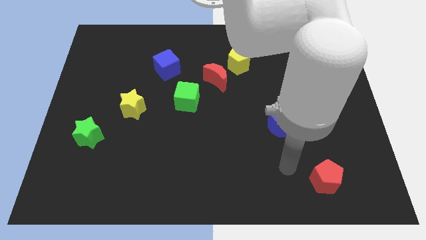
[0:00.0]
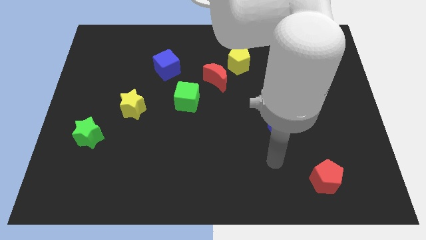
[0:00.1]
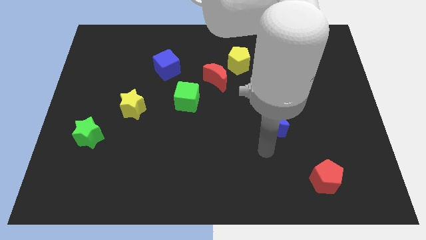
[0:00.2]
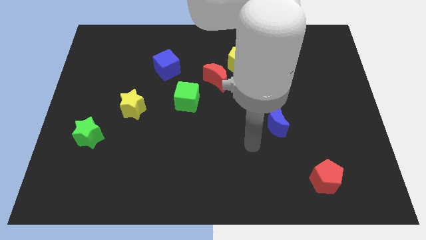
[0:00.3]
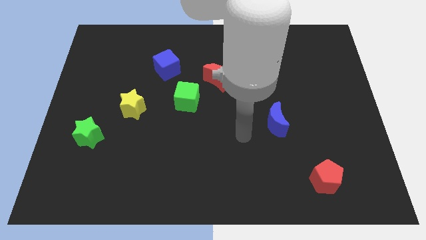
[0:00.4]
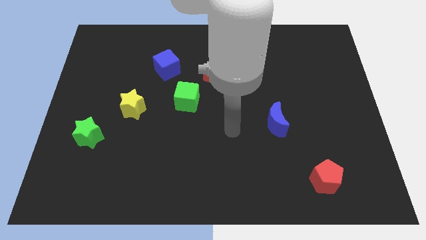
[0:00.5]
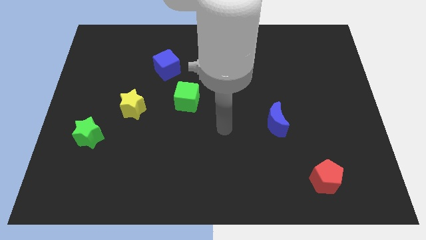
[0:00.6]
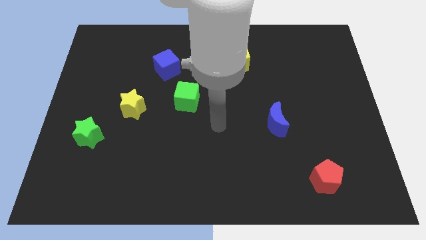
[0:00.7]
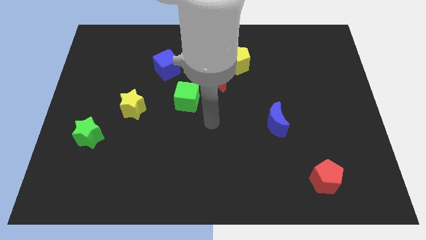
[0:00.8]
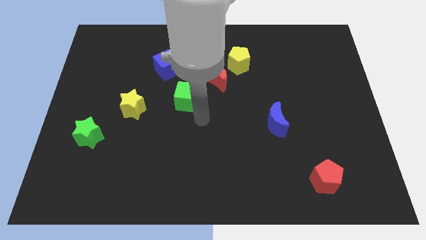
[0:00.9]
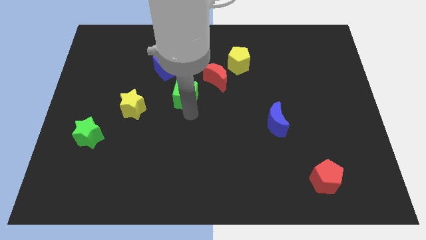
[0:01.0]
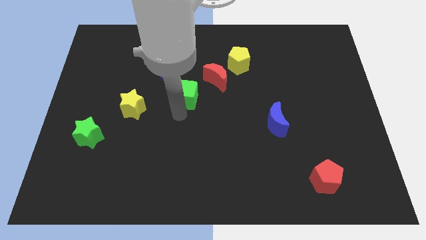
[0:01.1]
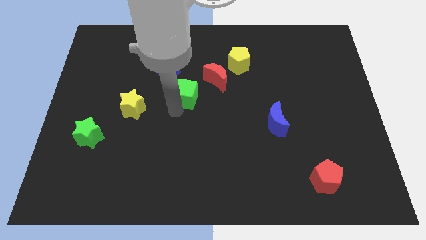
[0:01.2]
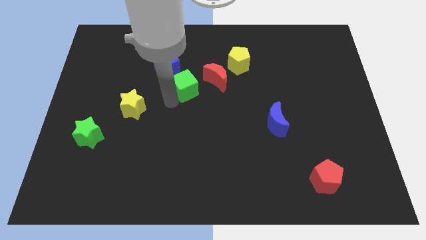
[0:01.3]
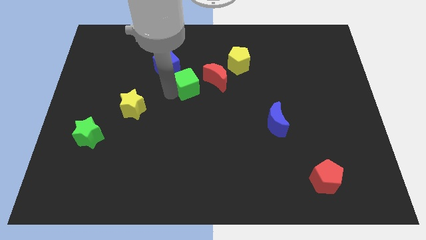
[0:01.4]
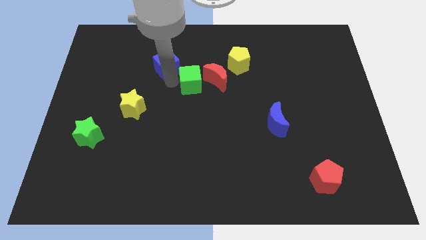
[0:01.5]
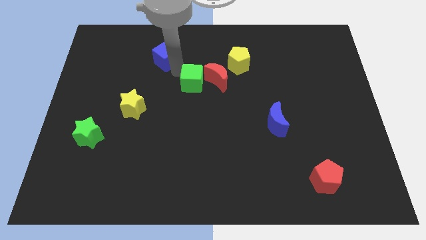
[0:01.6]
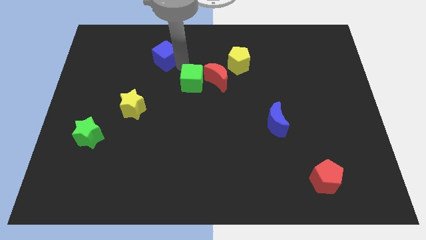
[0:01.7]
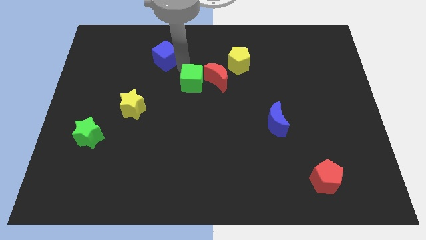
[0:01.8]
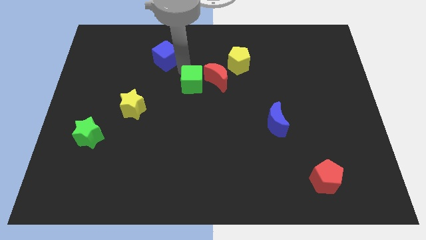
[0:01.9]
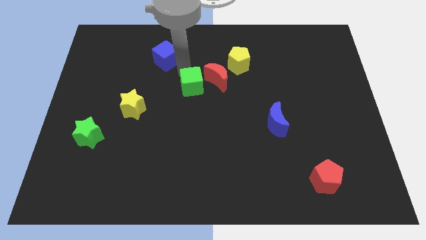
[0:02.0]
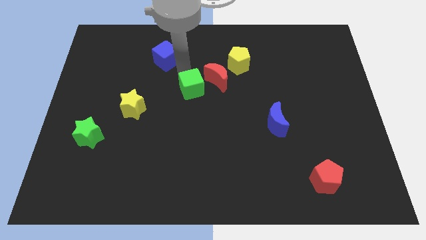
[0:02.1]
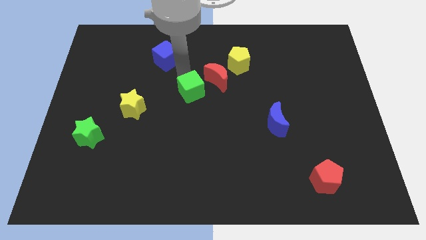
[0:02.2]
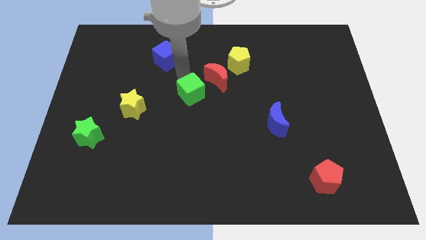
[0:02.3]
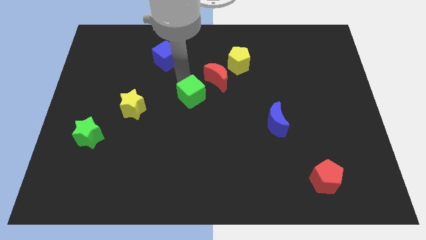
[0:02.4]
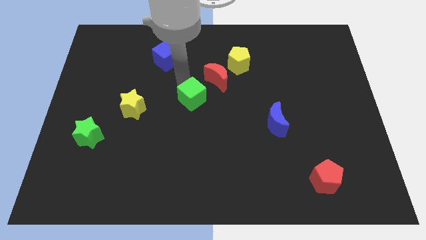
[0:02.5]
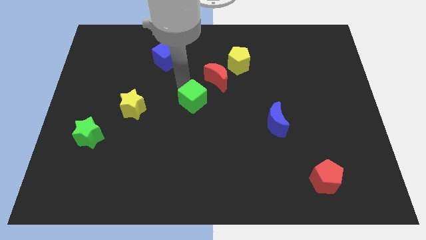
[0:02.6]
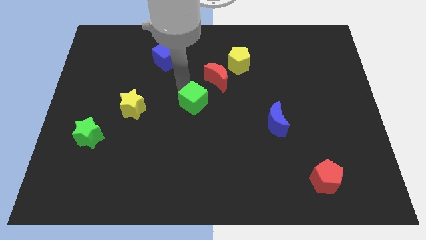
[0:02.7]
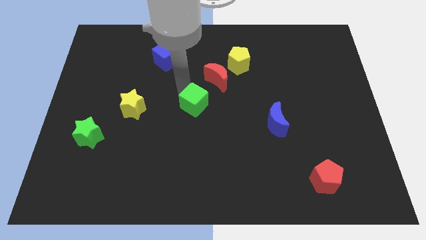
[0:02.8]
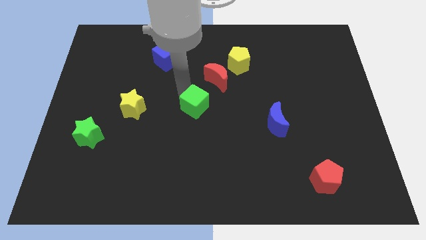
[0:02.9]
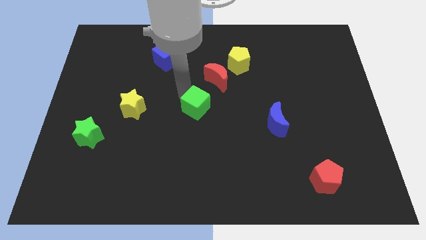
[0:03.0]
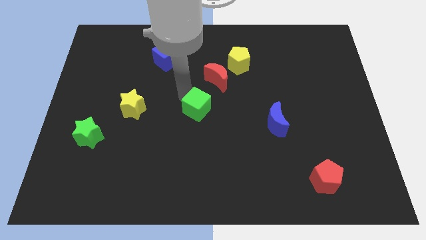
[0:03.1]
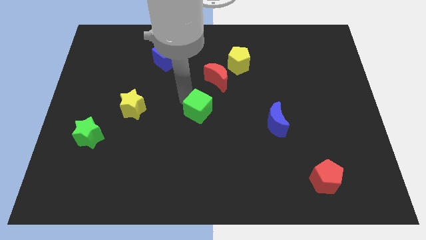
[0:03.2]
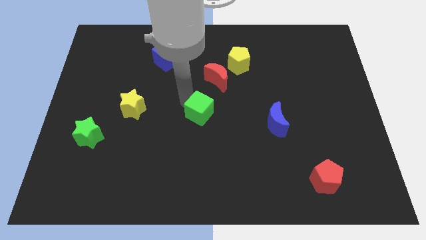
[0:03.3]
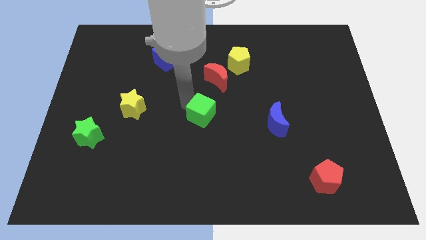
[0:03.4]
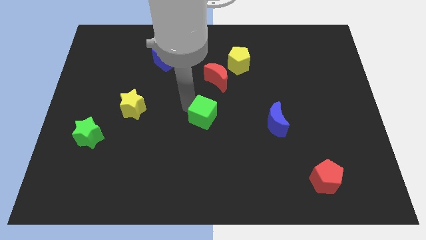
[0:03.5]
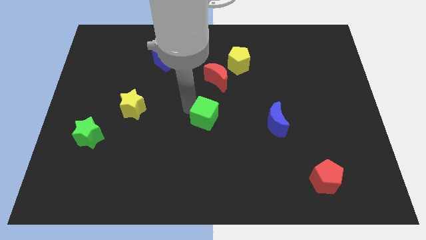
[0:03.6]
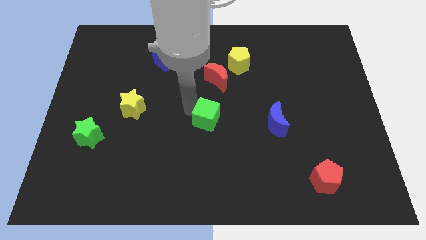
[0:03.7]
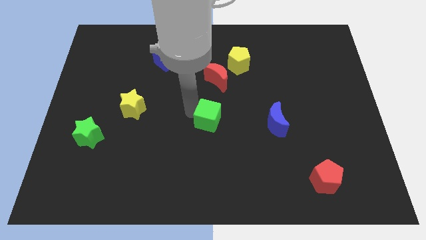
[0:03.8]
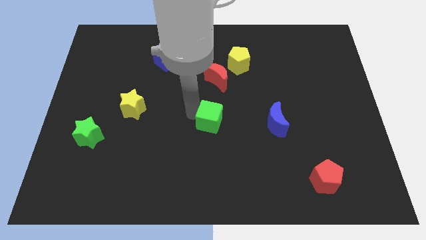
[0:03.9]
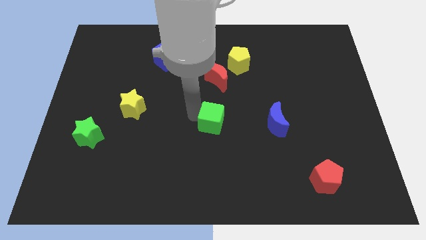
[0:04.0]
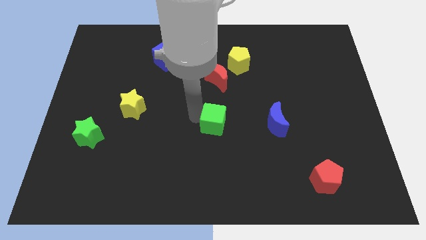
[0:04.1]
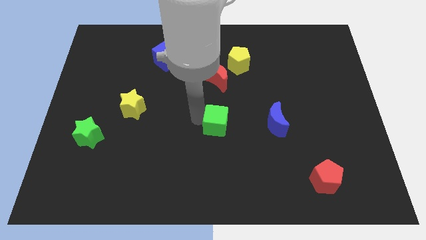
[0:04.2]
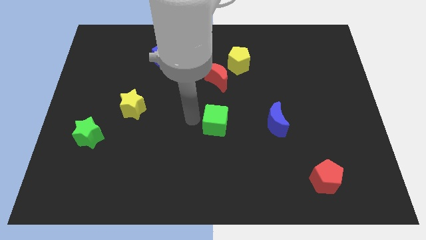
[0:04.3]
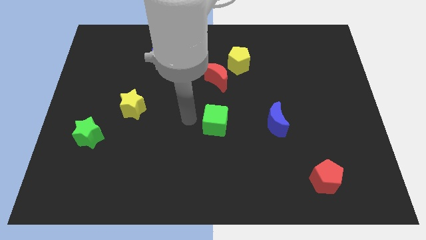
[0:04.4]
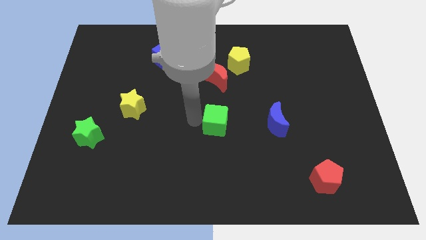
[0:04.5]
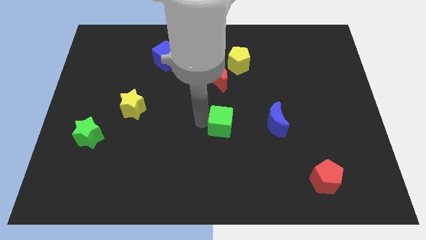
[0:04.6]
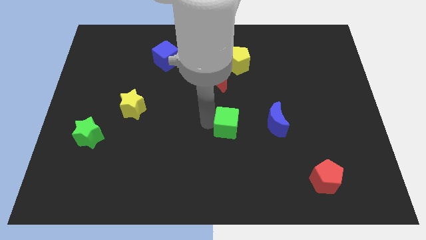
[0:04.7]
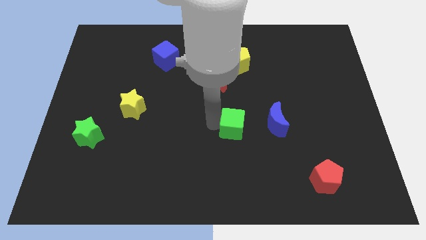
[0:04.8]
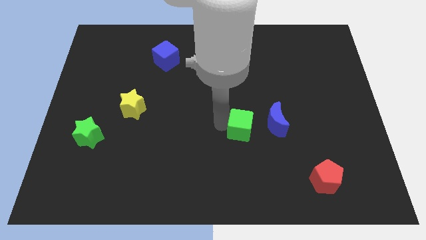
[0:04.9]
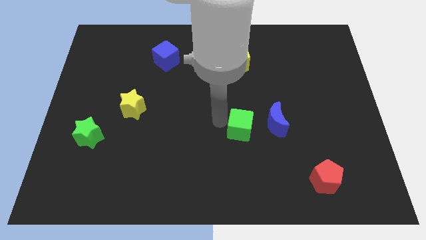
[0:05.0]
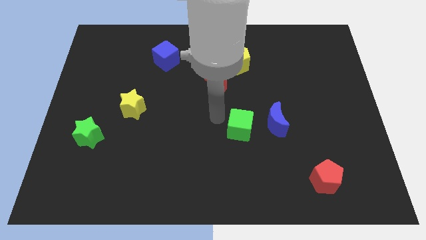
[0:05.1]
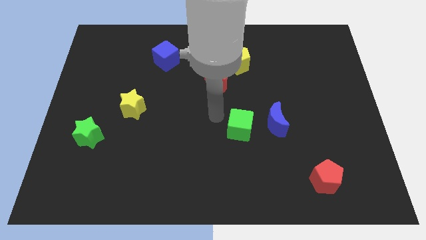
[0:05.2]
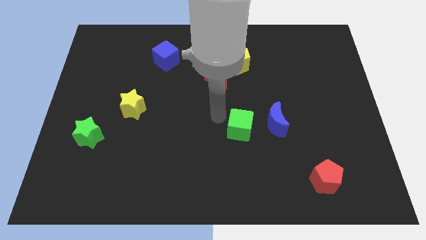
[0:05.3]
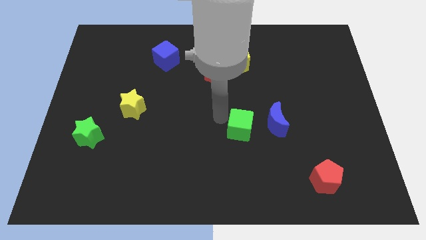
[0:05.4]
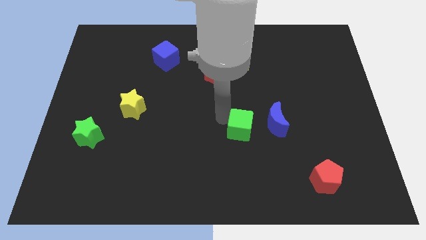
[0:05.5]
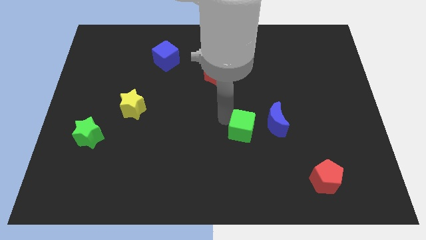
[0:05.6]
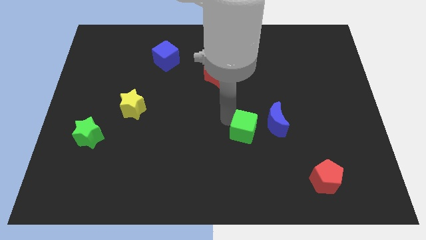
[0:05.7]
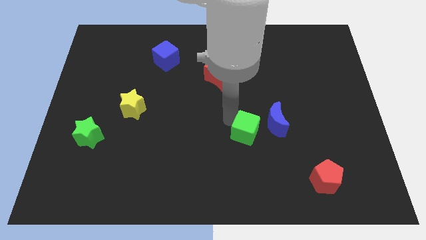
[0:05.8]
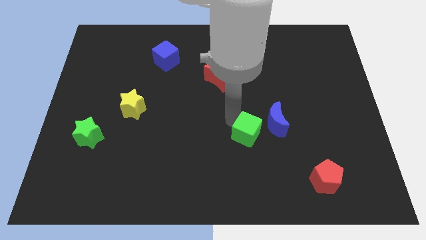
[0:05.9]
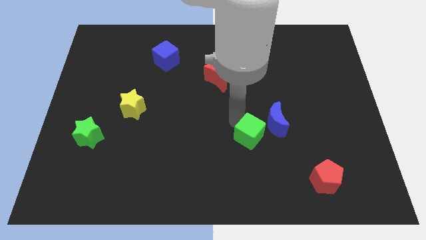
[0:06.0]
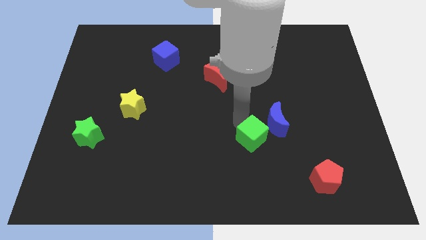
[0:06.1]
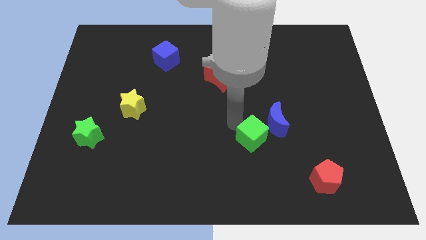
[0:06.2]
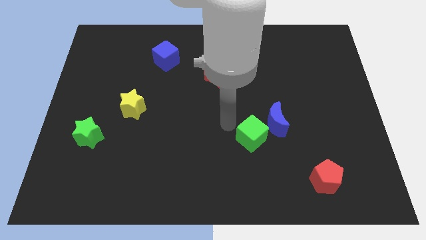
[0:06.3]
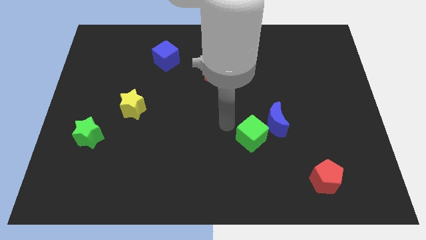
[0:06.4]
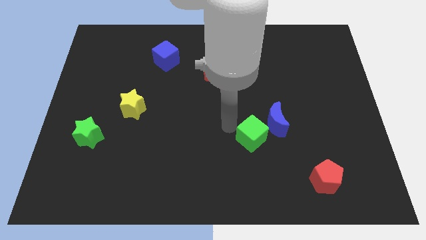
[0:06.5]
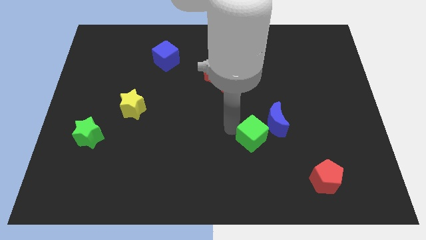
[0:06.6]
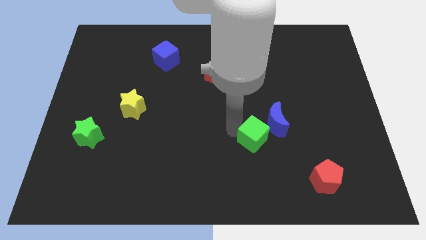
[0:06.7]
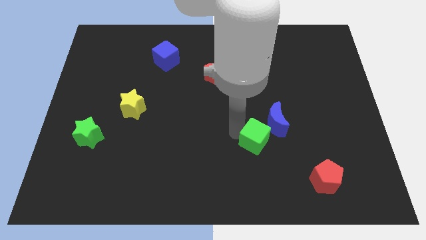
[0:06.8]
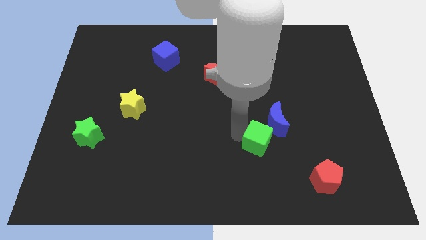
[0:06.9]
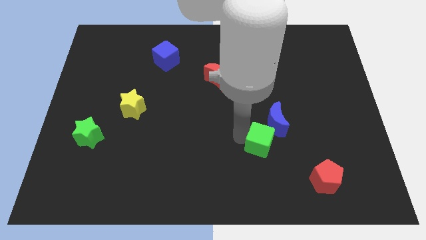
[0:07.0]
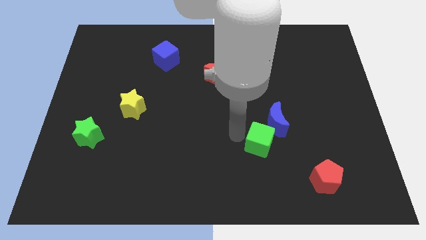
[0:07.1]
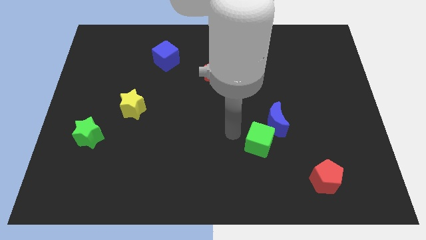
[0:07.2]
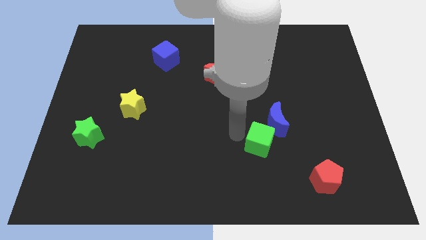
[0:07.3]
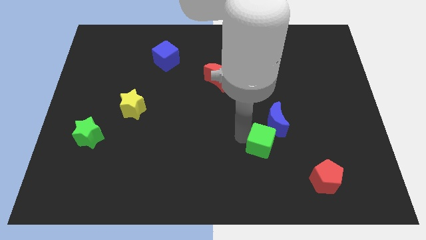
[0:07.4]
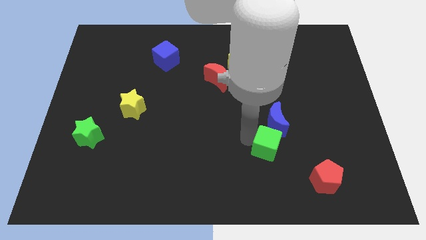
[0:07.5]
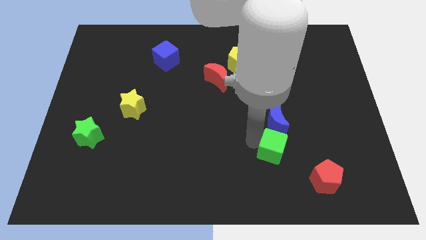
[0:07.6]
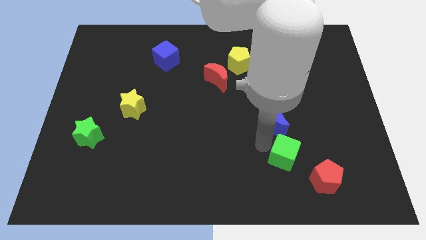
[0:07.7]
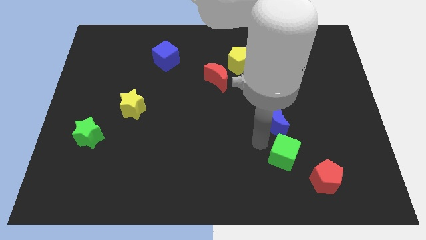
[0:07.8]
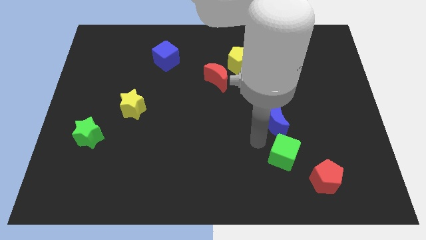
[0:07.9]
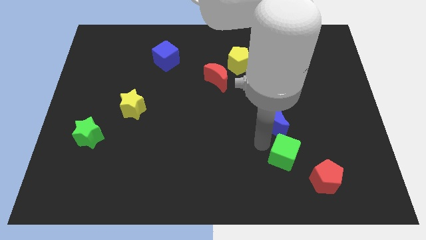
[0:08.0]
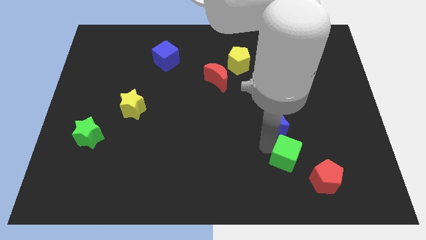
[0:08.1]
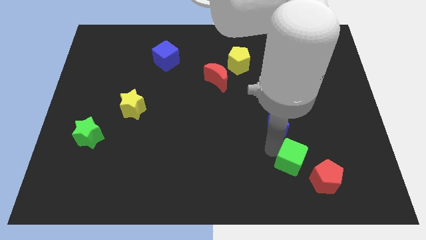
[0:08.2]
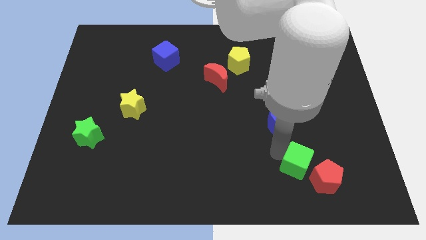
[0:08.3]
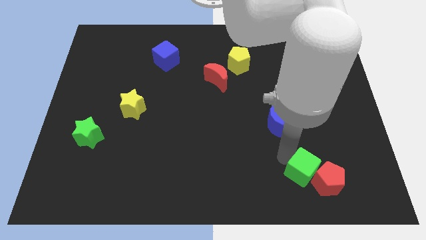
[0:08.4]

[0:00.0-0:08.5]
slide the green cube close to the red pentagon
